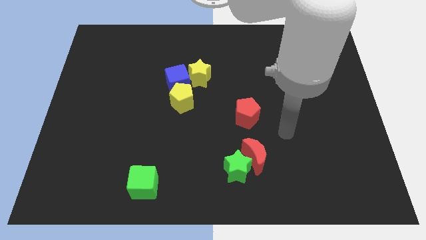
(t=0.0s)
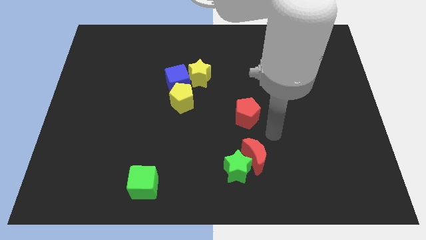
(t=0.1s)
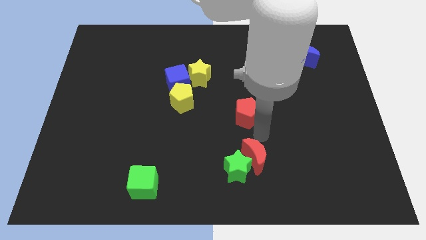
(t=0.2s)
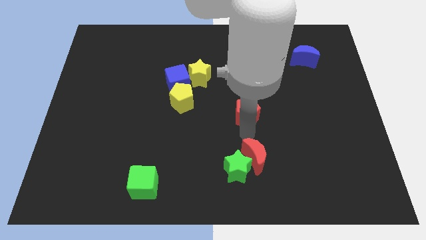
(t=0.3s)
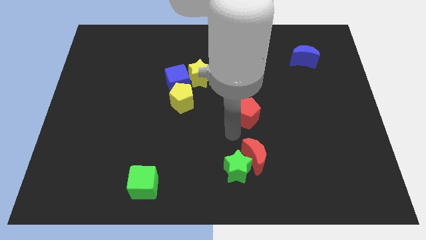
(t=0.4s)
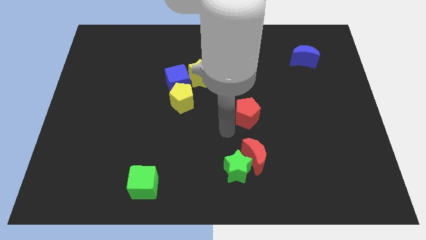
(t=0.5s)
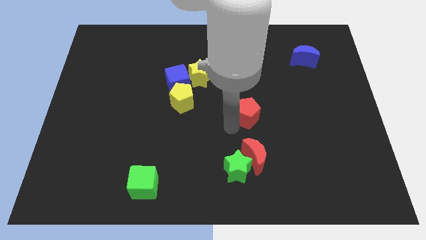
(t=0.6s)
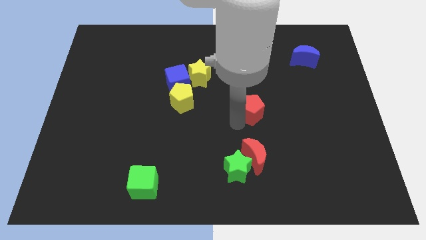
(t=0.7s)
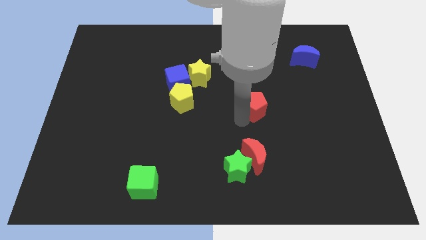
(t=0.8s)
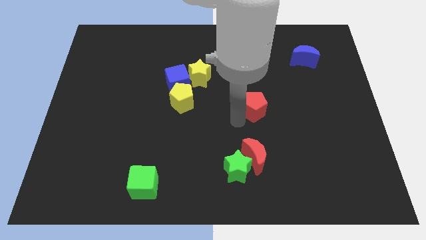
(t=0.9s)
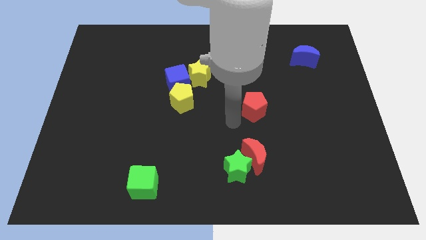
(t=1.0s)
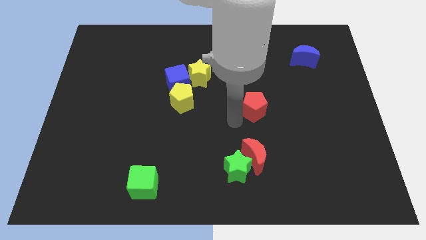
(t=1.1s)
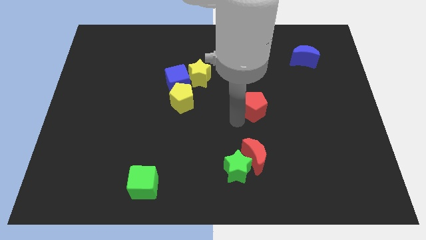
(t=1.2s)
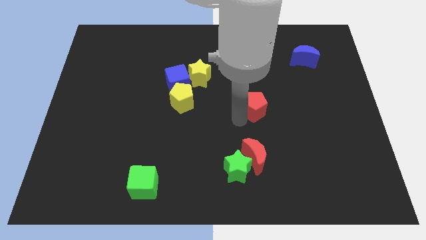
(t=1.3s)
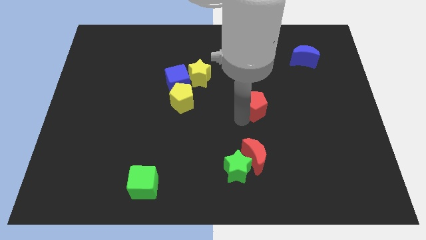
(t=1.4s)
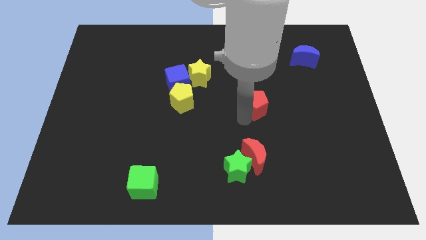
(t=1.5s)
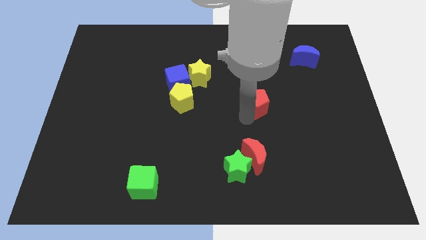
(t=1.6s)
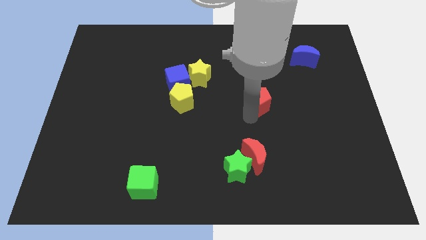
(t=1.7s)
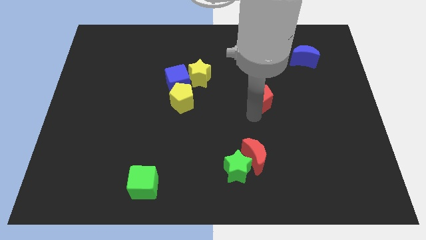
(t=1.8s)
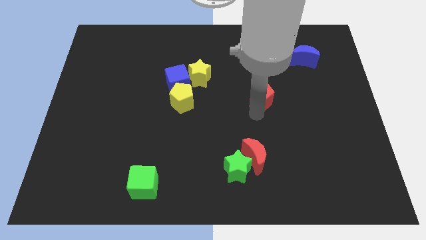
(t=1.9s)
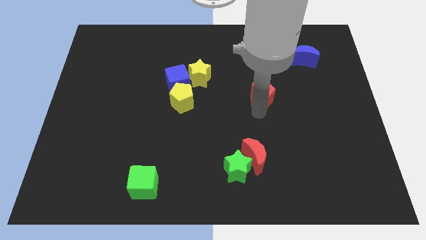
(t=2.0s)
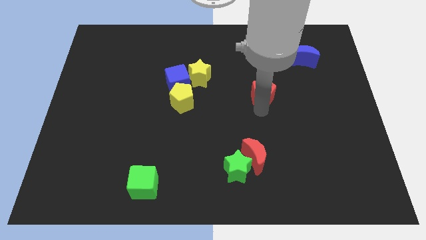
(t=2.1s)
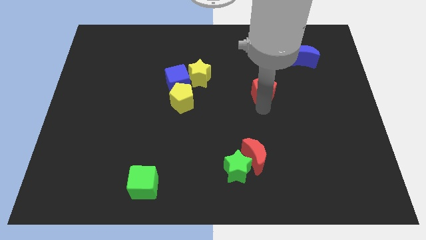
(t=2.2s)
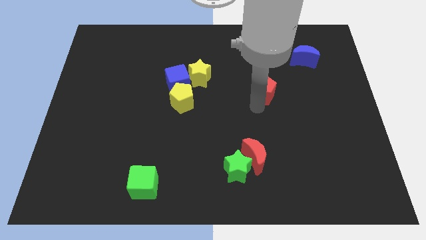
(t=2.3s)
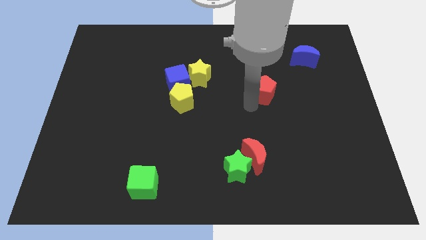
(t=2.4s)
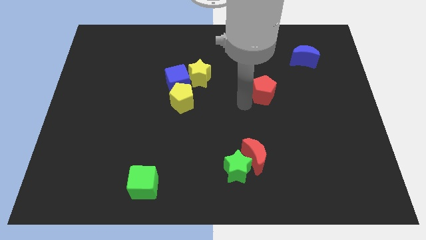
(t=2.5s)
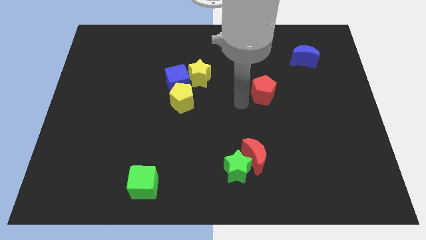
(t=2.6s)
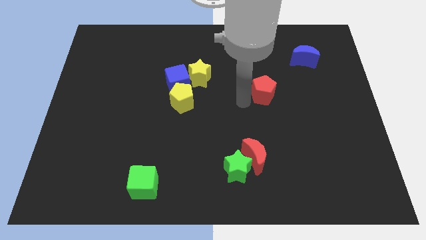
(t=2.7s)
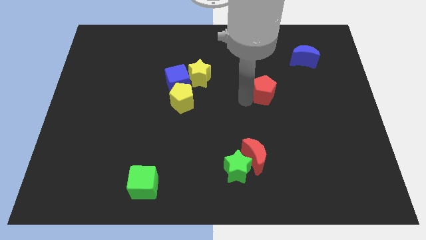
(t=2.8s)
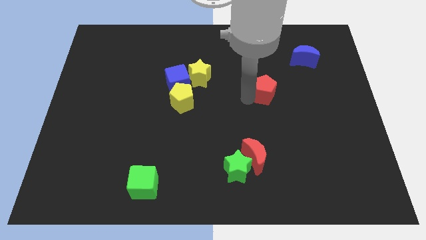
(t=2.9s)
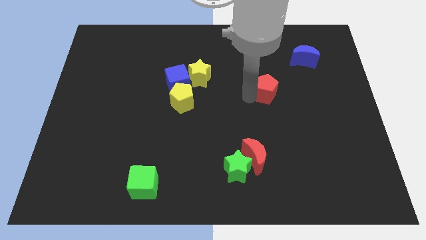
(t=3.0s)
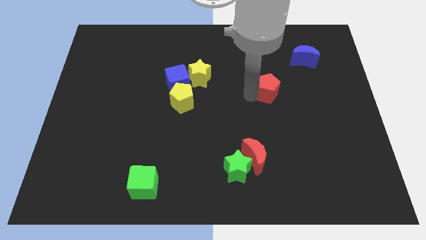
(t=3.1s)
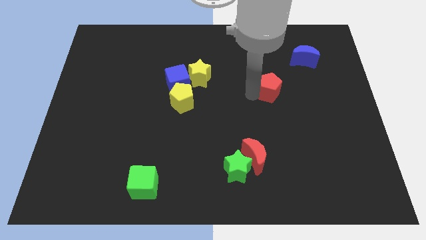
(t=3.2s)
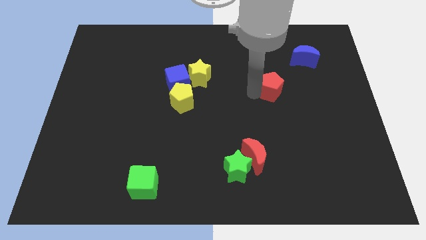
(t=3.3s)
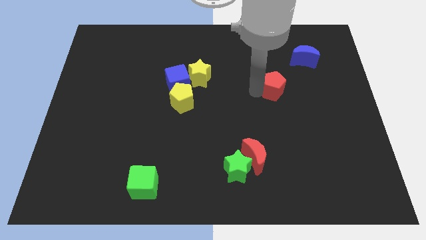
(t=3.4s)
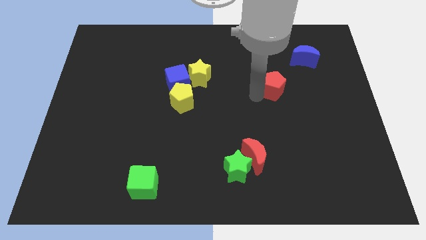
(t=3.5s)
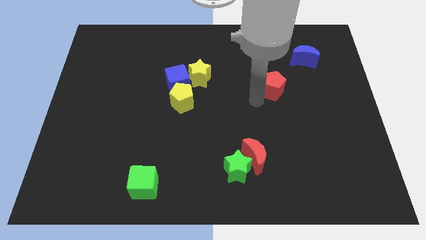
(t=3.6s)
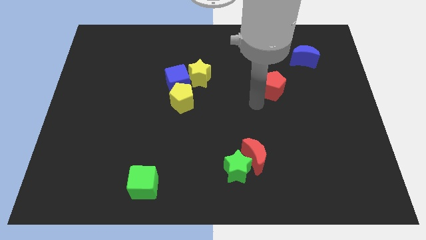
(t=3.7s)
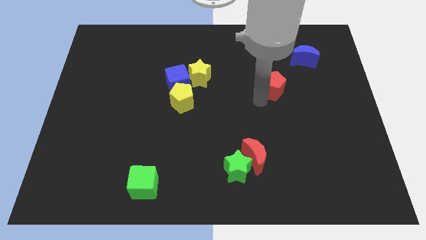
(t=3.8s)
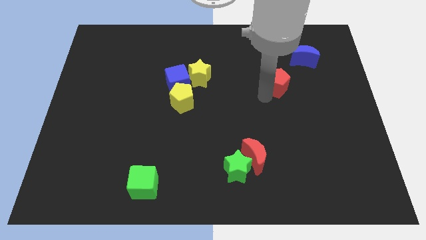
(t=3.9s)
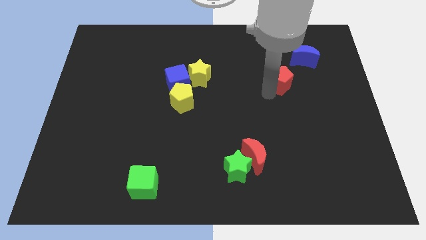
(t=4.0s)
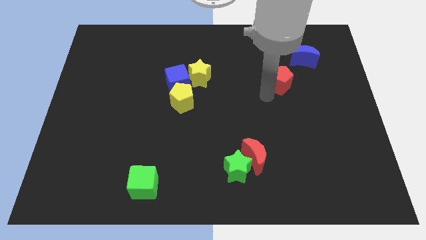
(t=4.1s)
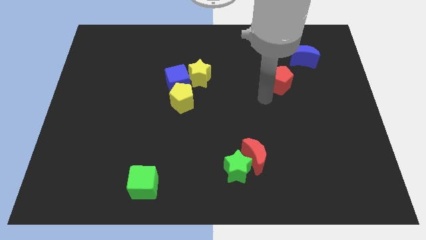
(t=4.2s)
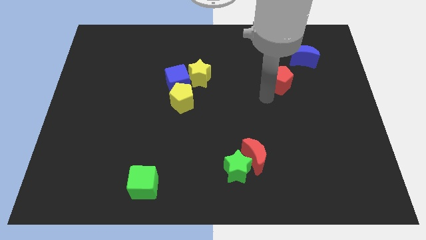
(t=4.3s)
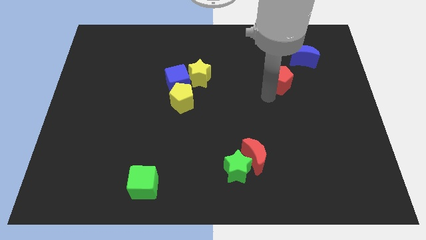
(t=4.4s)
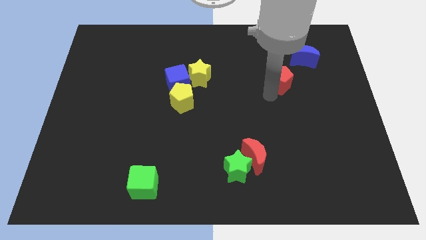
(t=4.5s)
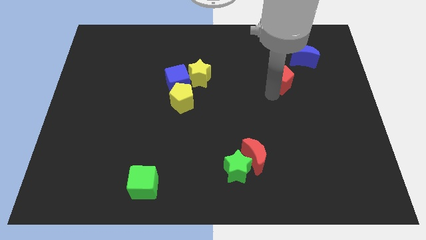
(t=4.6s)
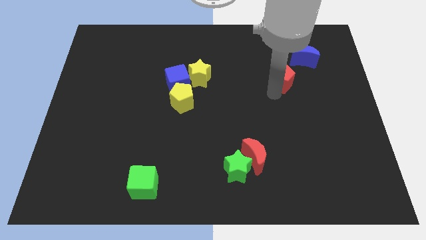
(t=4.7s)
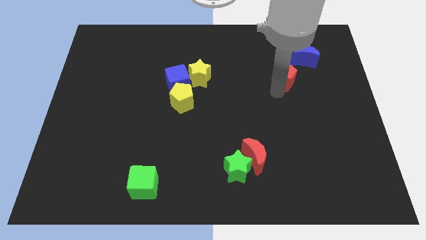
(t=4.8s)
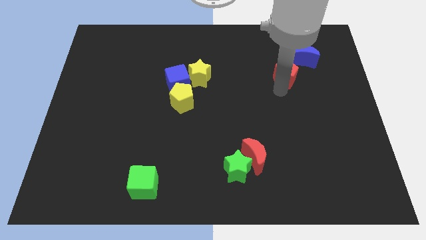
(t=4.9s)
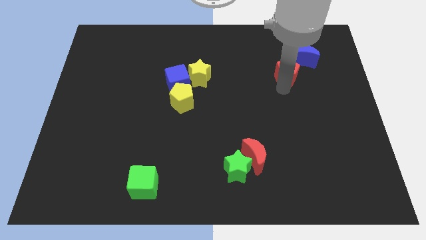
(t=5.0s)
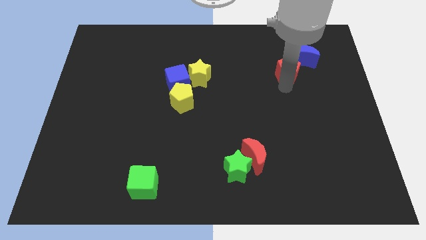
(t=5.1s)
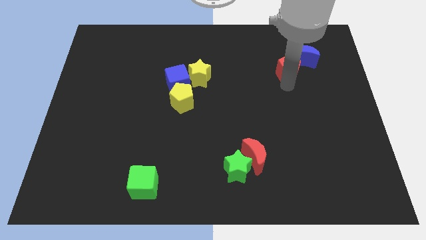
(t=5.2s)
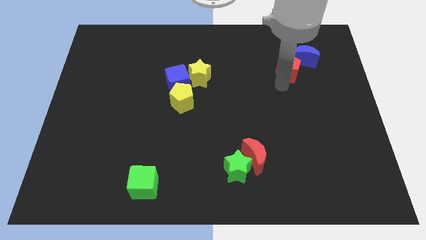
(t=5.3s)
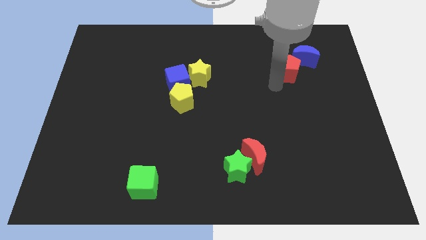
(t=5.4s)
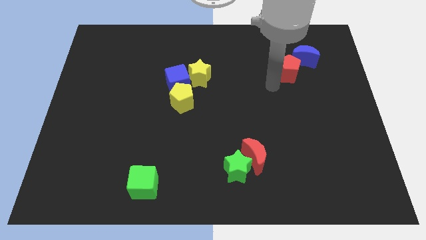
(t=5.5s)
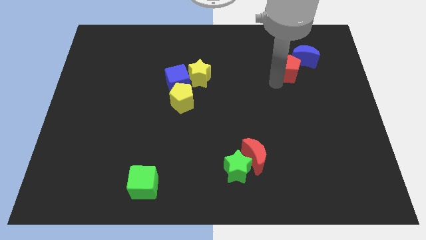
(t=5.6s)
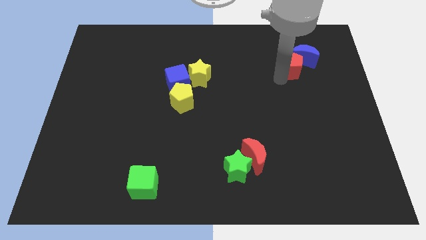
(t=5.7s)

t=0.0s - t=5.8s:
slide the red pentagon to the blue moon
